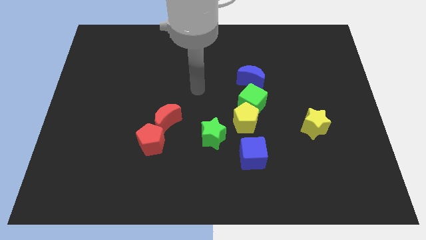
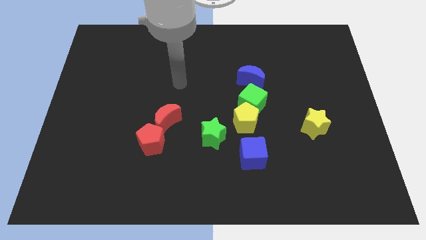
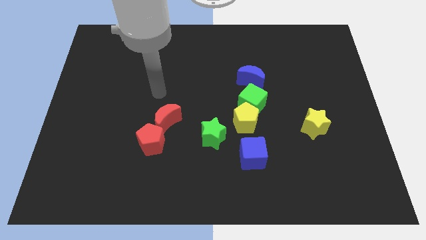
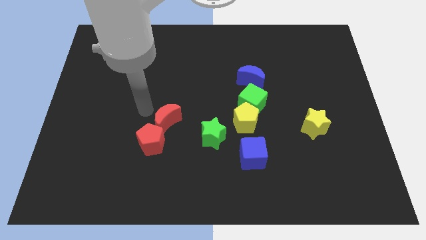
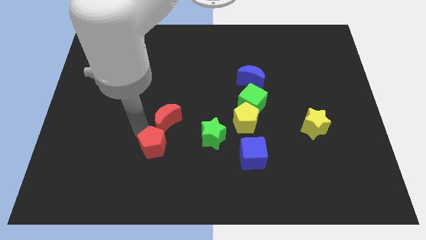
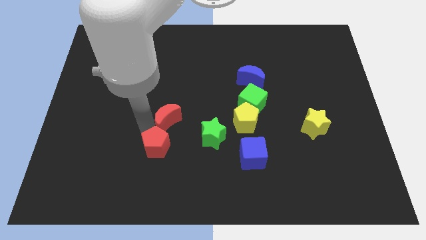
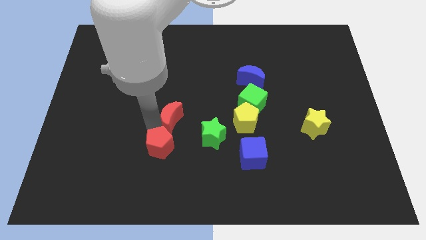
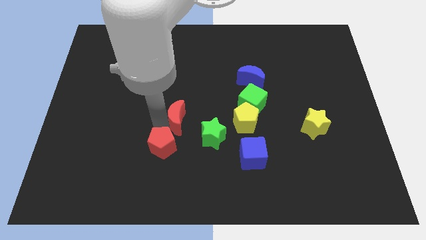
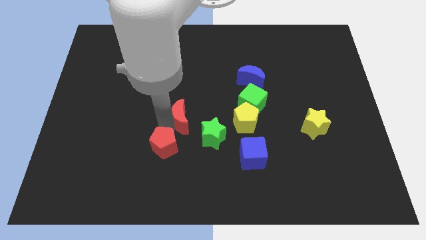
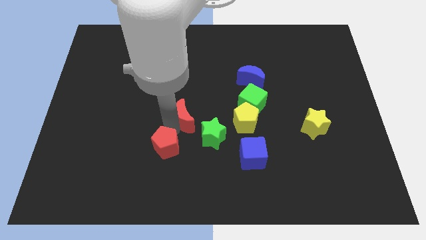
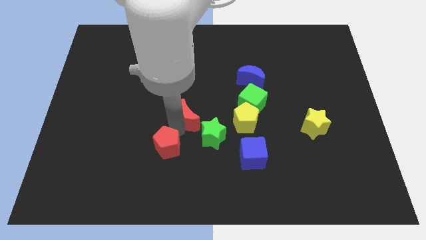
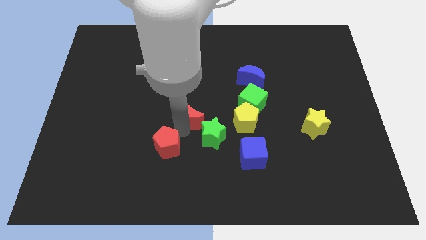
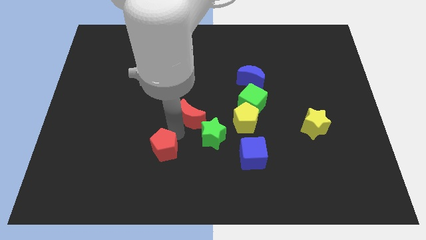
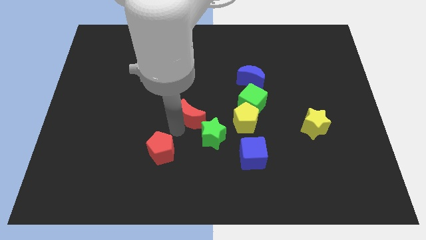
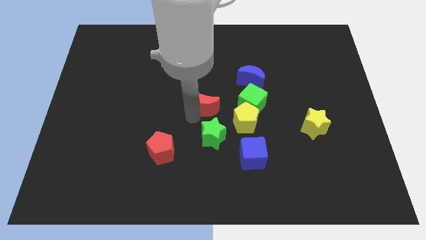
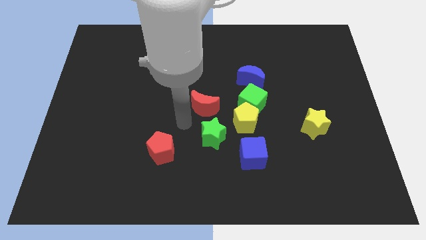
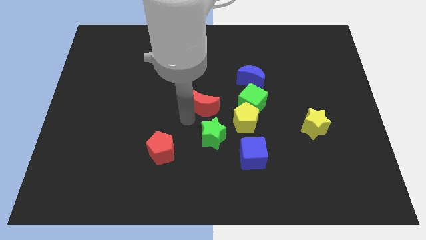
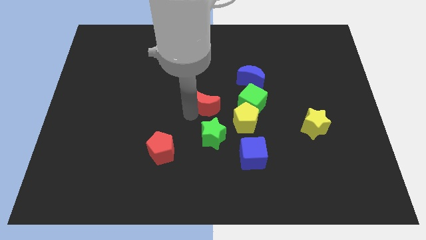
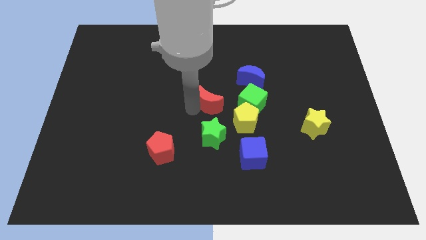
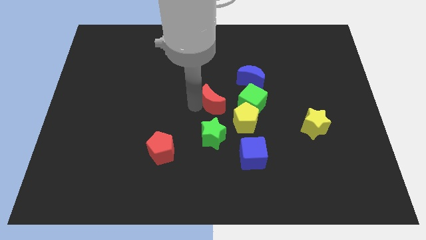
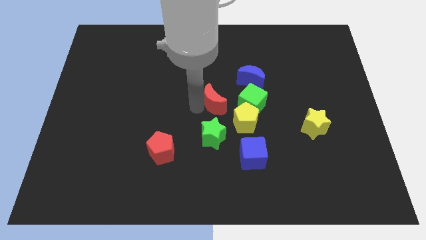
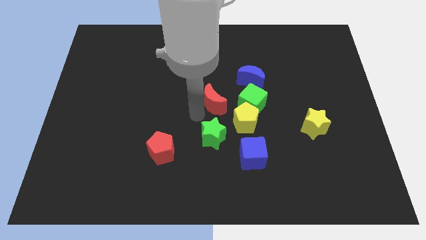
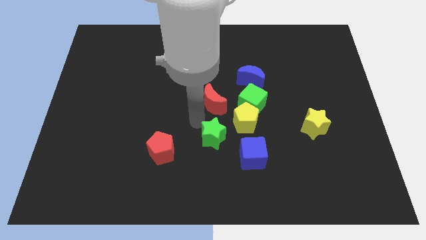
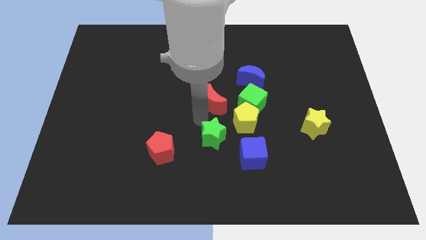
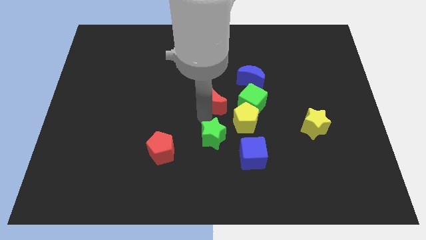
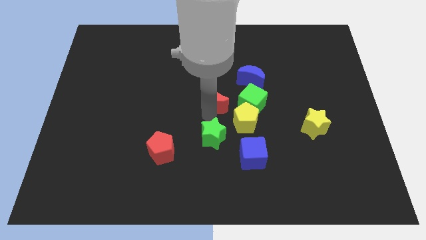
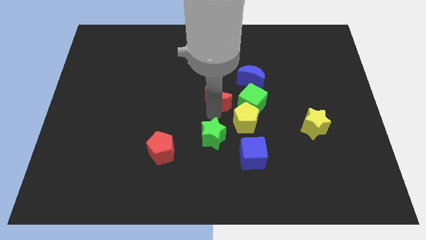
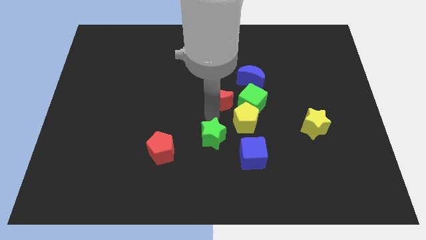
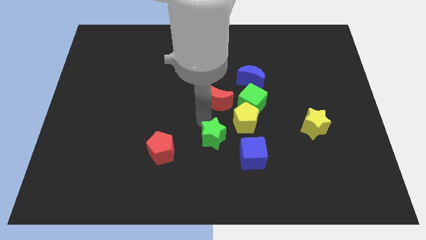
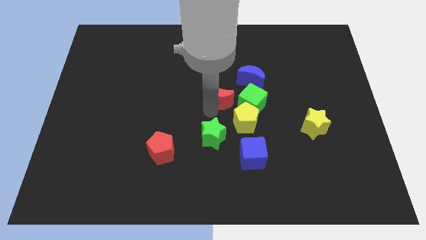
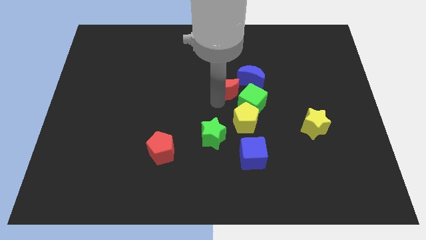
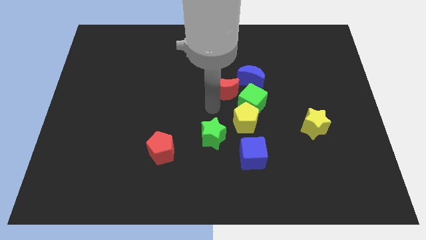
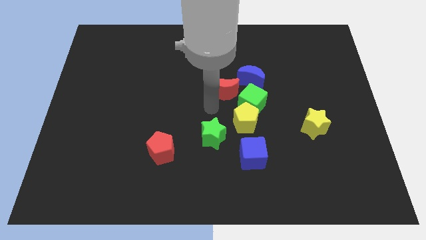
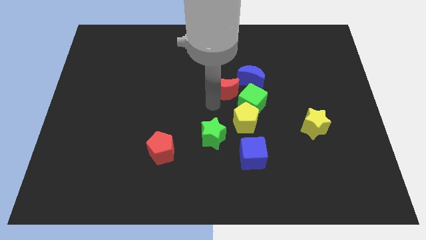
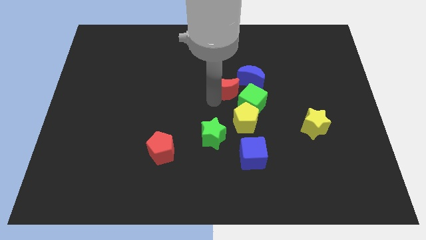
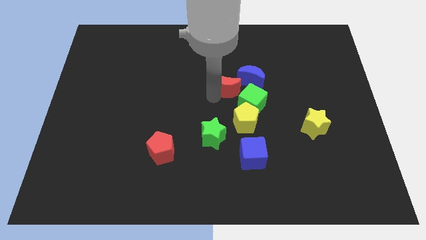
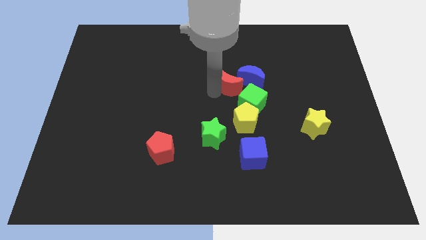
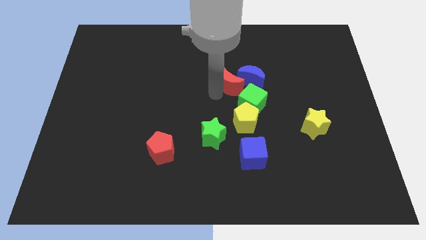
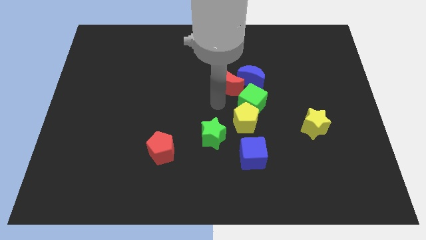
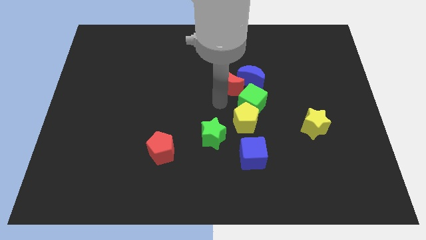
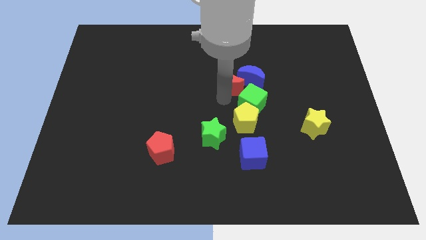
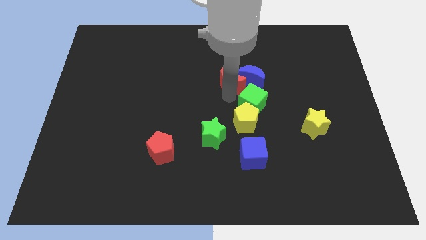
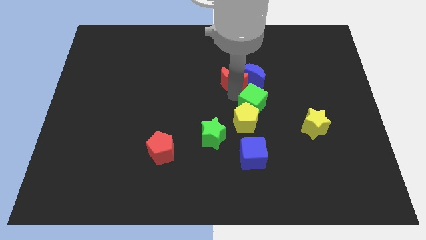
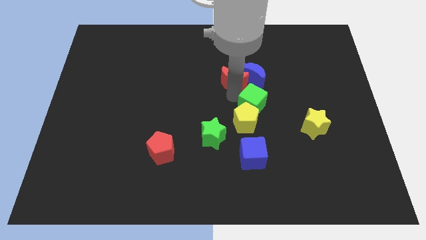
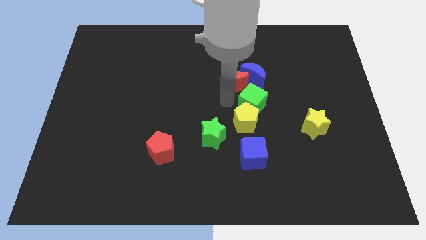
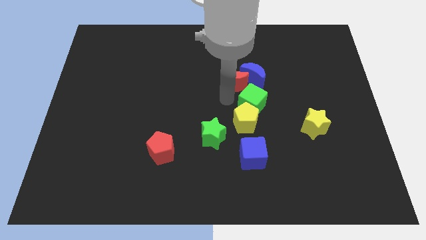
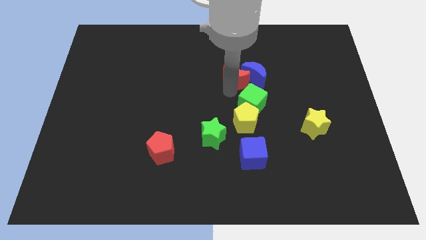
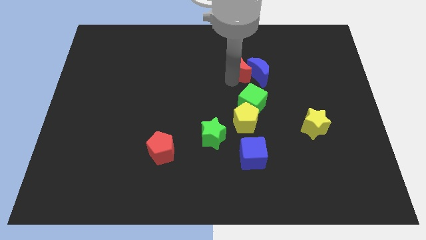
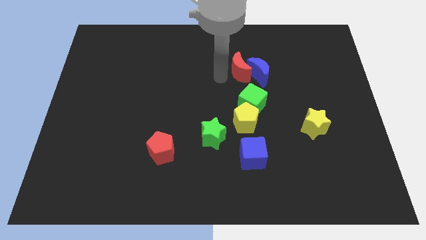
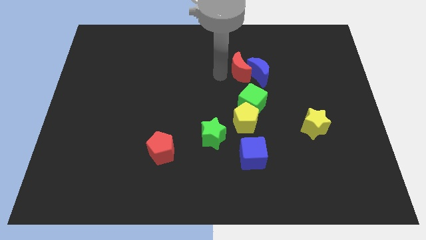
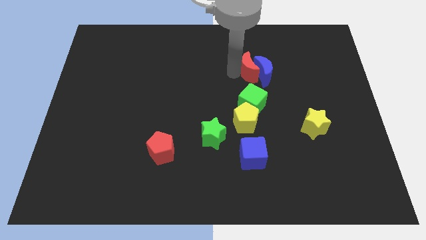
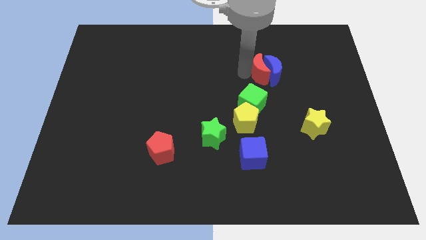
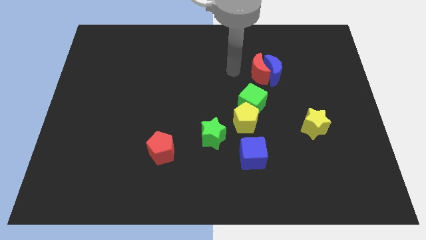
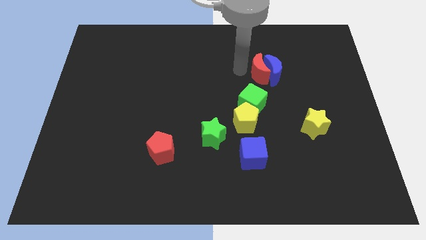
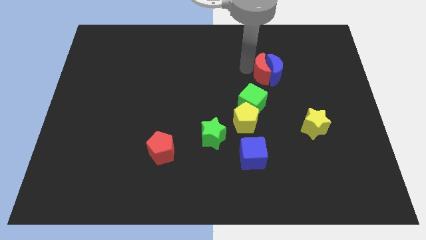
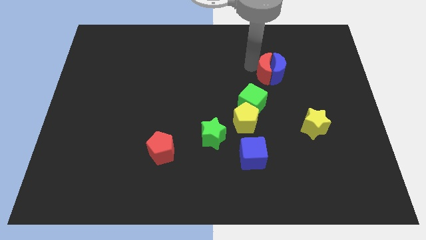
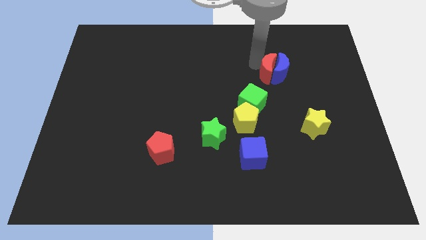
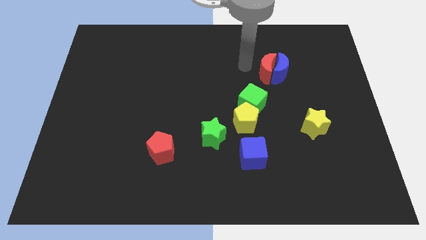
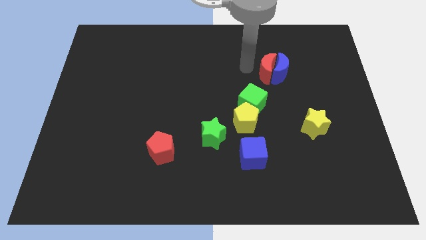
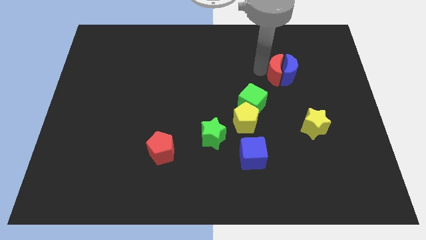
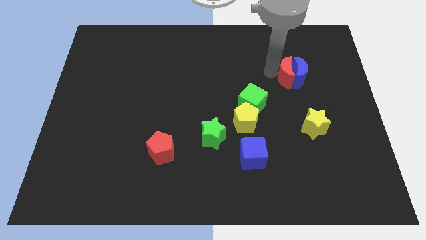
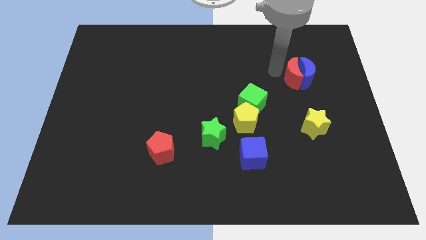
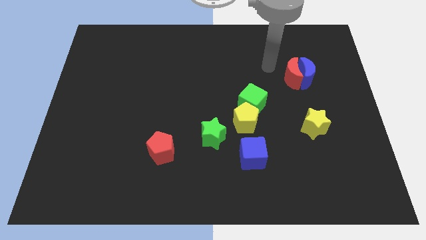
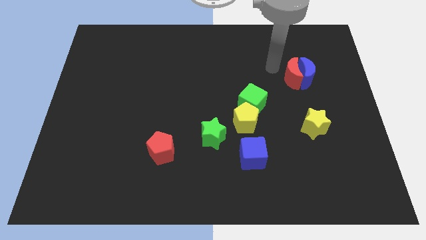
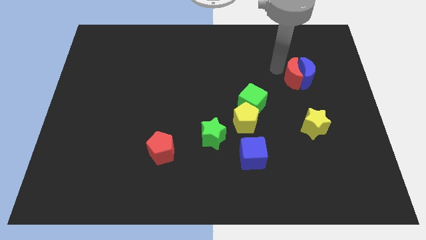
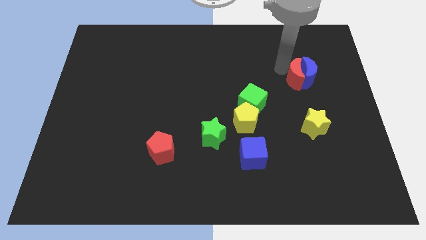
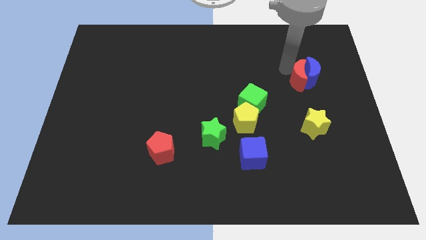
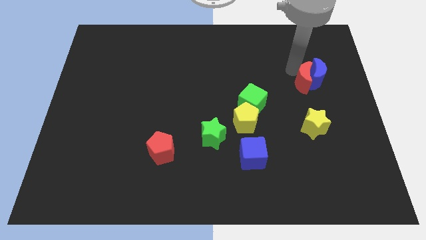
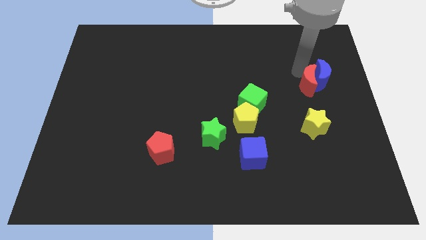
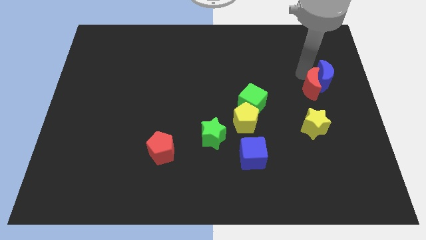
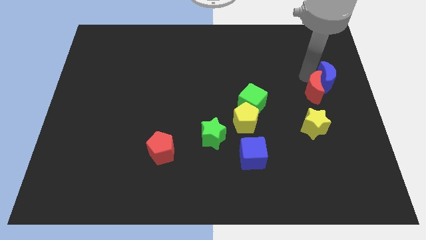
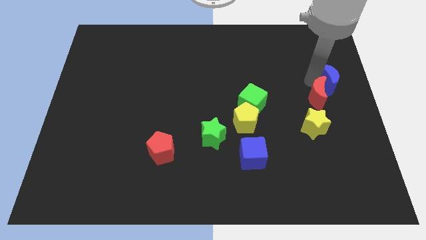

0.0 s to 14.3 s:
slide the red moon to the right side of the board
